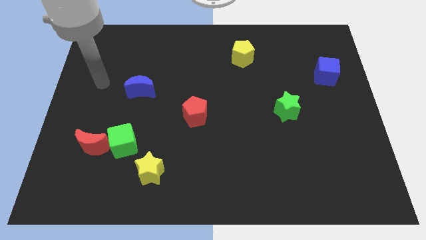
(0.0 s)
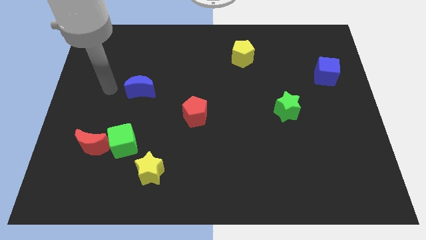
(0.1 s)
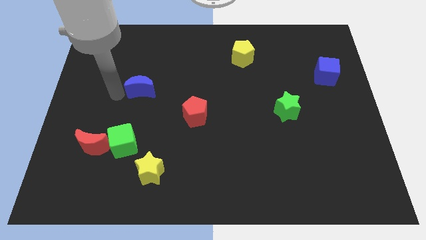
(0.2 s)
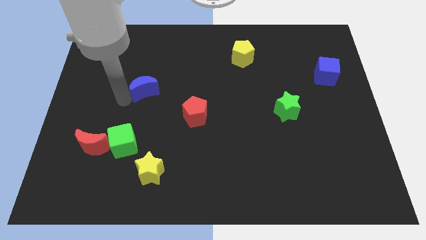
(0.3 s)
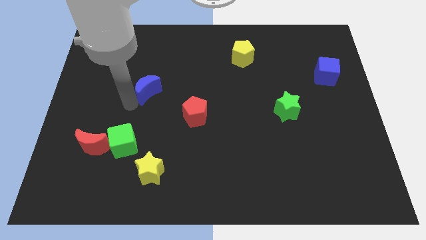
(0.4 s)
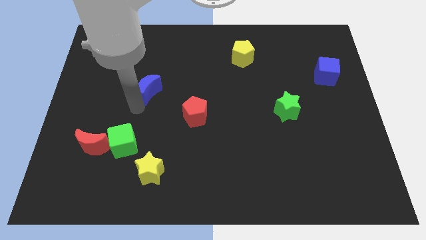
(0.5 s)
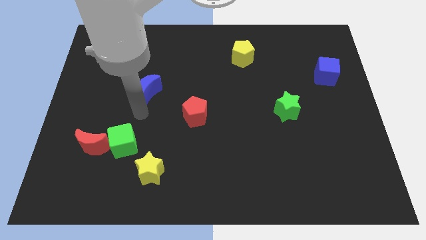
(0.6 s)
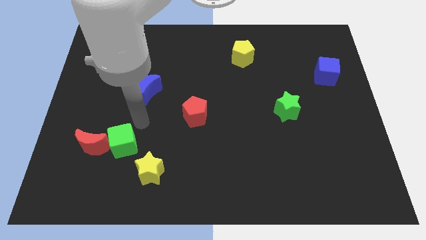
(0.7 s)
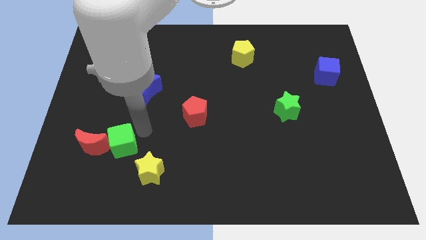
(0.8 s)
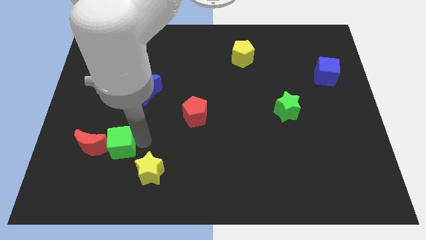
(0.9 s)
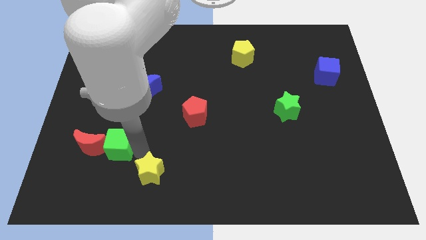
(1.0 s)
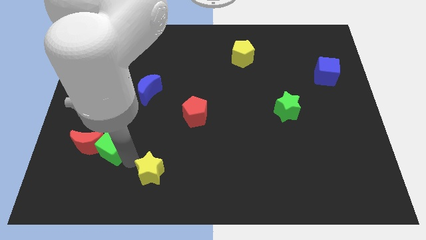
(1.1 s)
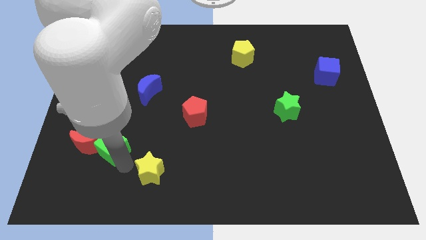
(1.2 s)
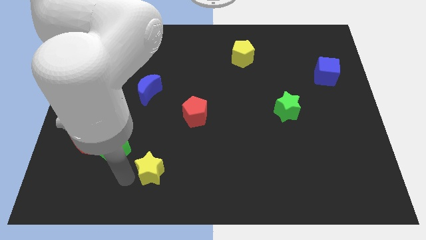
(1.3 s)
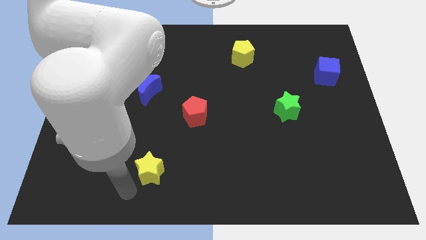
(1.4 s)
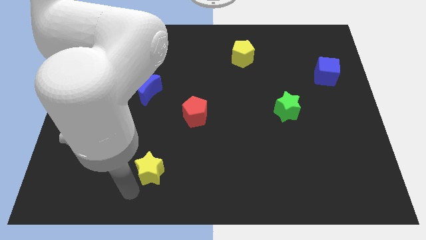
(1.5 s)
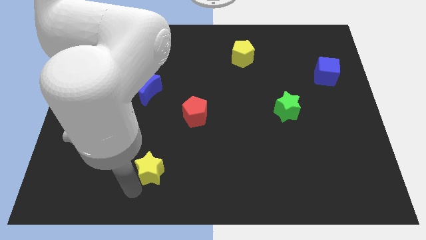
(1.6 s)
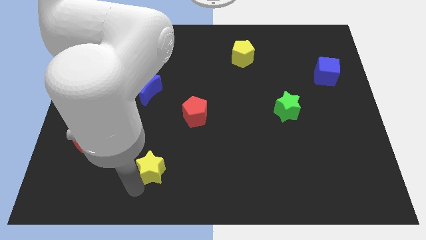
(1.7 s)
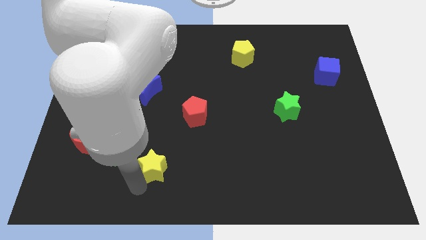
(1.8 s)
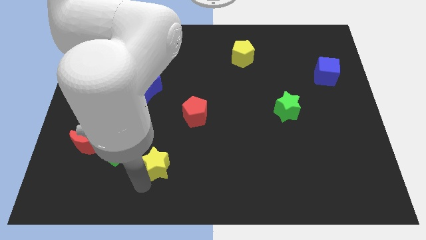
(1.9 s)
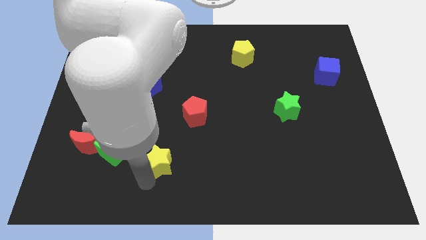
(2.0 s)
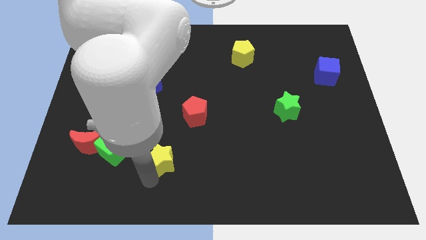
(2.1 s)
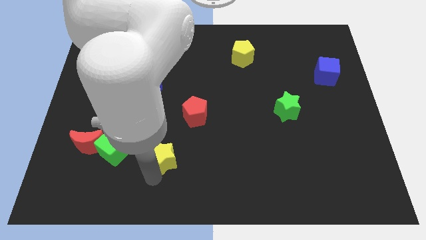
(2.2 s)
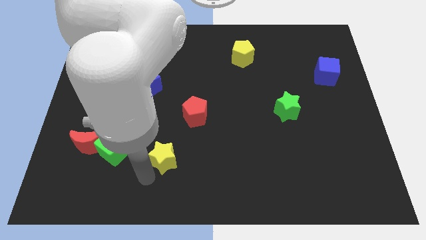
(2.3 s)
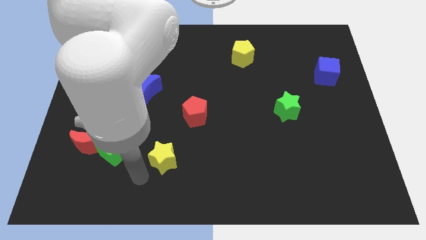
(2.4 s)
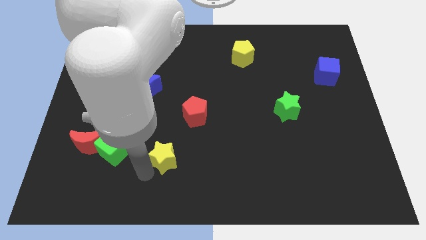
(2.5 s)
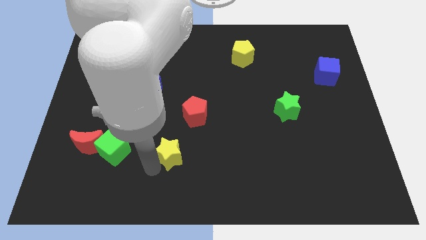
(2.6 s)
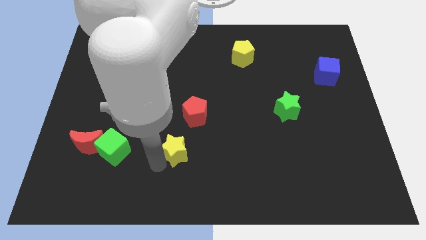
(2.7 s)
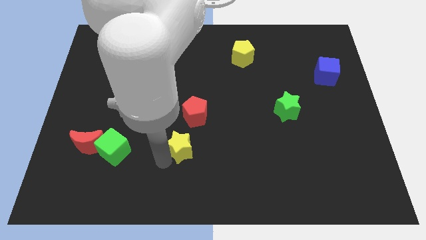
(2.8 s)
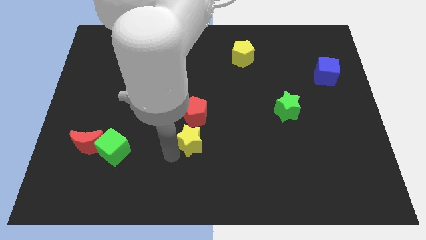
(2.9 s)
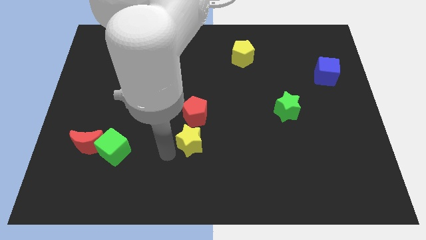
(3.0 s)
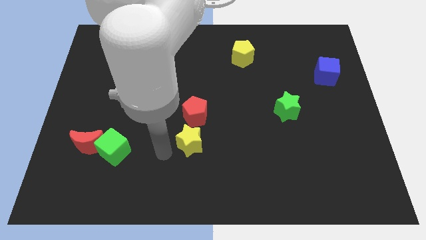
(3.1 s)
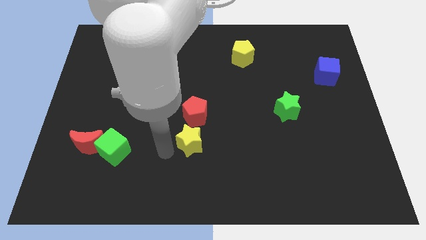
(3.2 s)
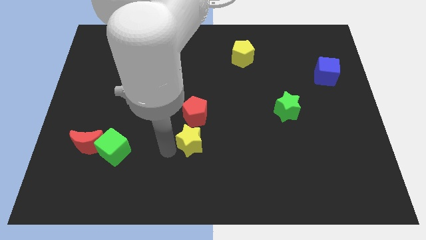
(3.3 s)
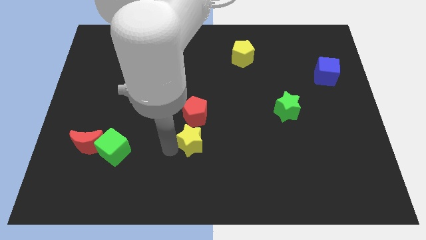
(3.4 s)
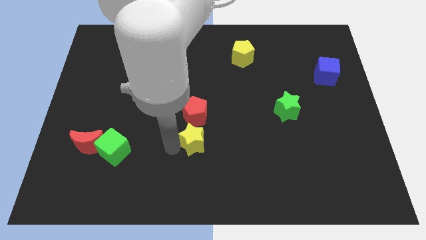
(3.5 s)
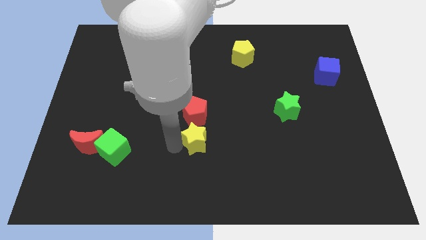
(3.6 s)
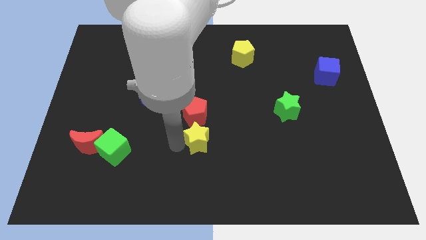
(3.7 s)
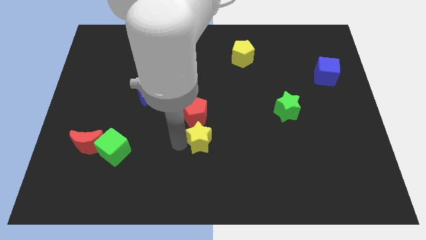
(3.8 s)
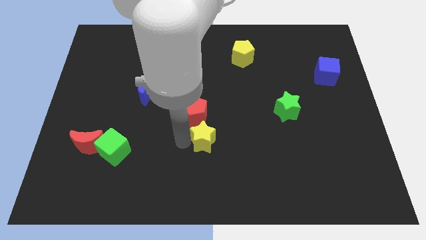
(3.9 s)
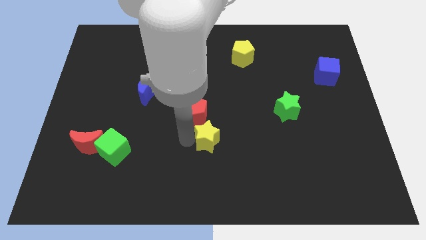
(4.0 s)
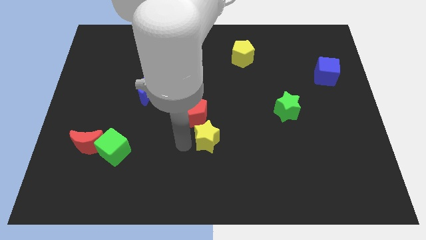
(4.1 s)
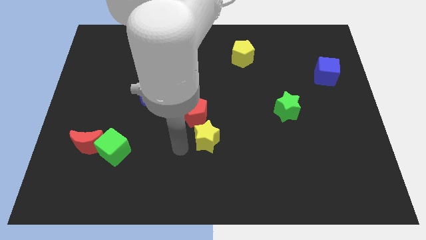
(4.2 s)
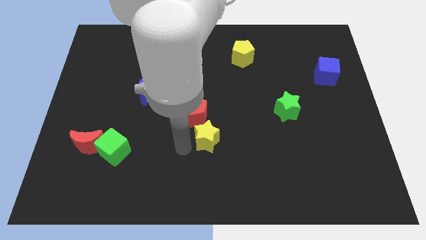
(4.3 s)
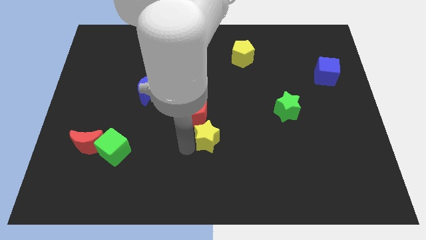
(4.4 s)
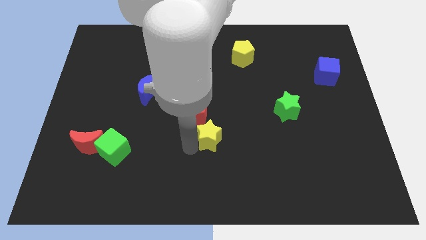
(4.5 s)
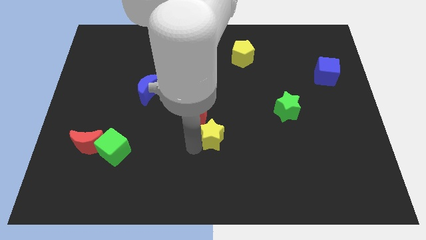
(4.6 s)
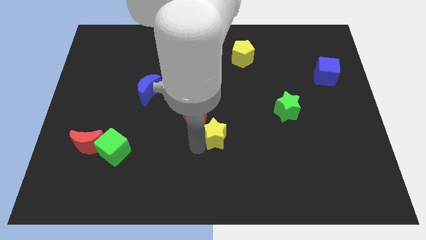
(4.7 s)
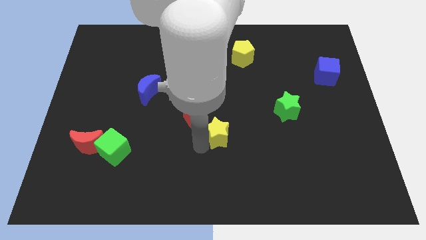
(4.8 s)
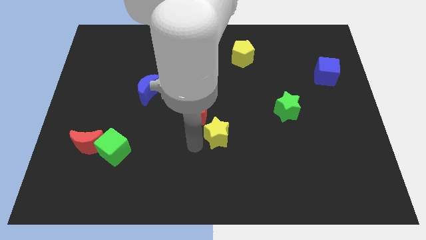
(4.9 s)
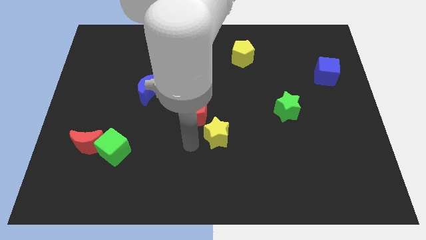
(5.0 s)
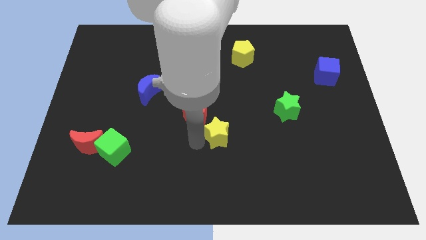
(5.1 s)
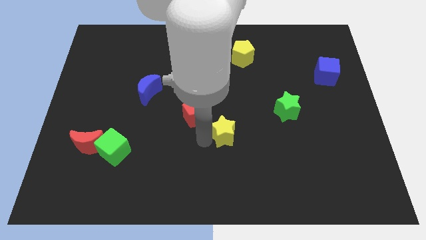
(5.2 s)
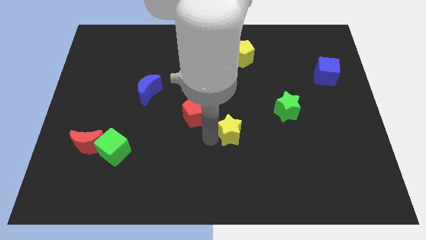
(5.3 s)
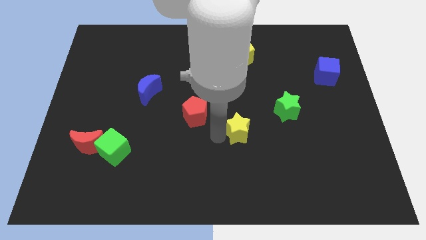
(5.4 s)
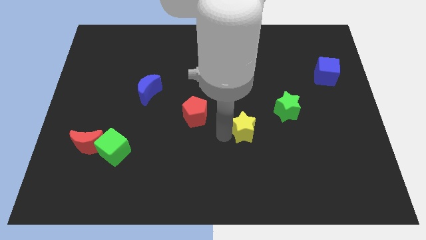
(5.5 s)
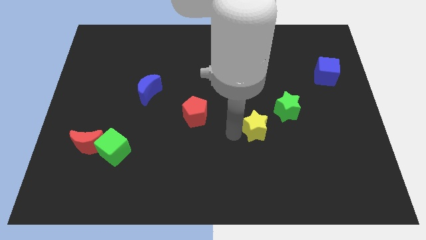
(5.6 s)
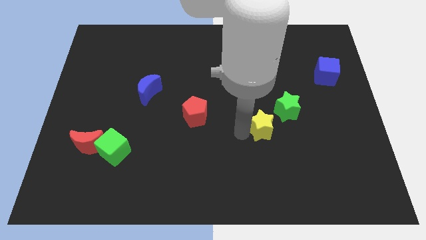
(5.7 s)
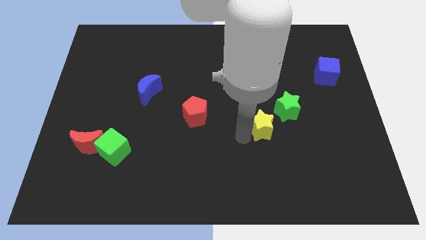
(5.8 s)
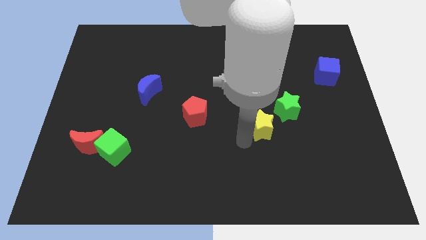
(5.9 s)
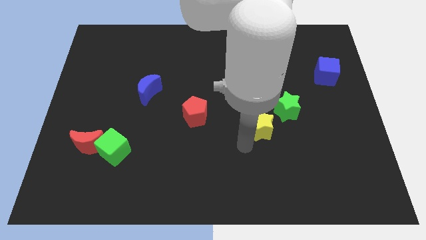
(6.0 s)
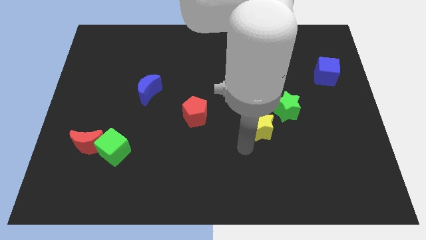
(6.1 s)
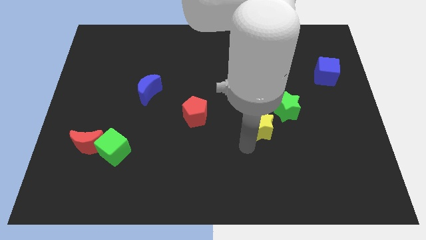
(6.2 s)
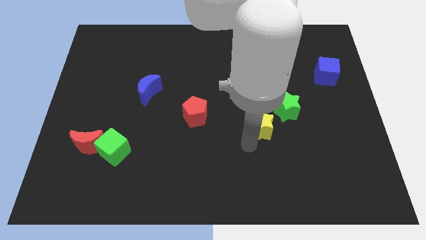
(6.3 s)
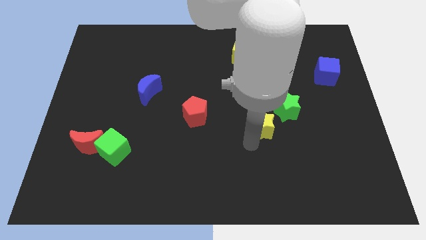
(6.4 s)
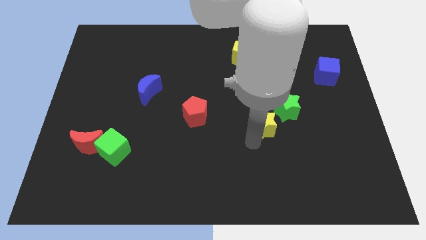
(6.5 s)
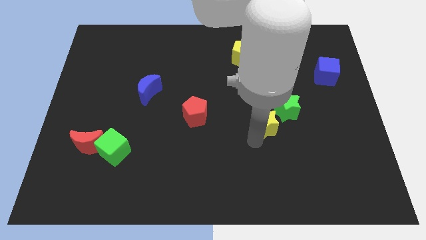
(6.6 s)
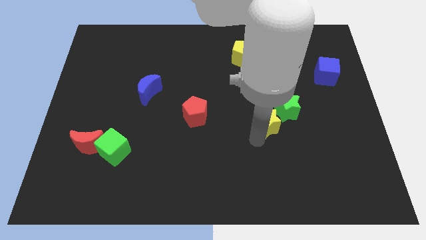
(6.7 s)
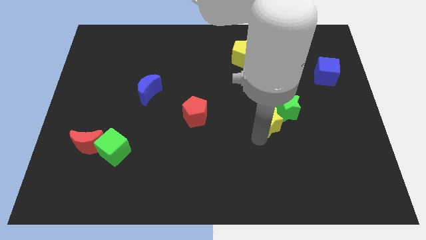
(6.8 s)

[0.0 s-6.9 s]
slide the yellow star next to the green star

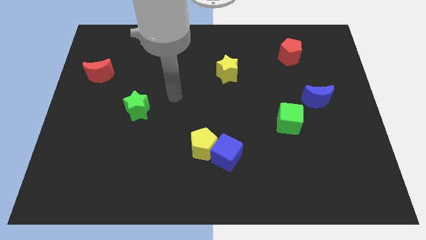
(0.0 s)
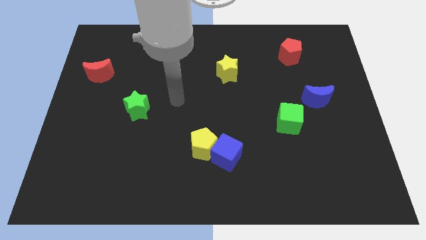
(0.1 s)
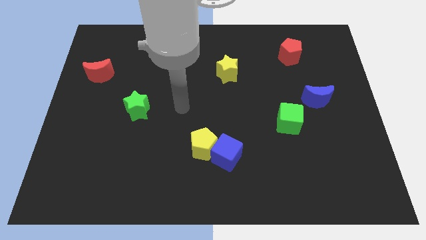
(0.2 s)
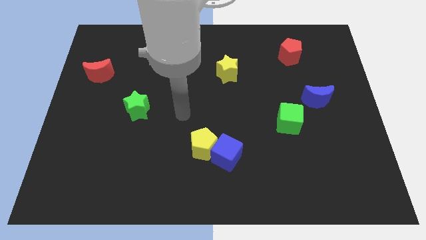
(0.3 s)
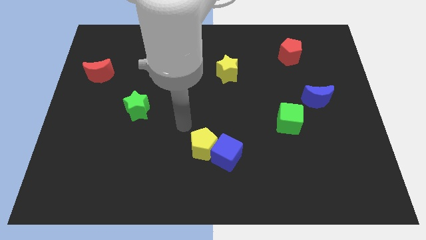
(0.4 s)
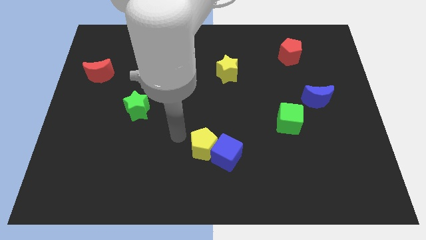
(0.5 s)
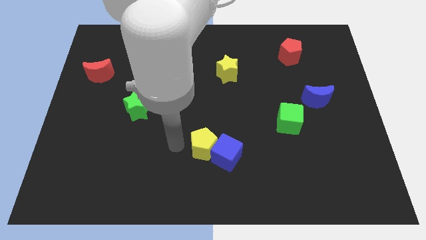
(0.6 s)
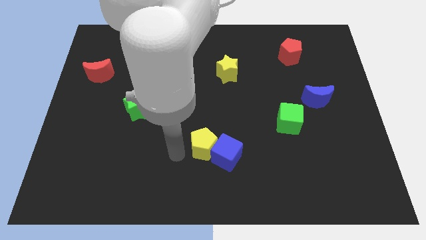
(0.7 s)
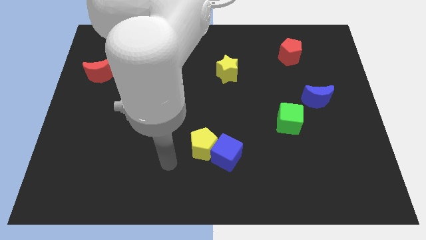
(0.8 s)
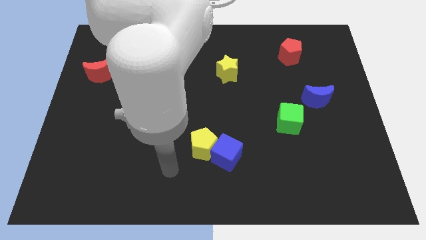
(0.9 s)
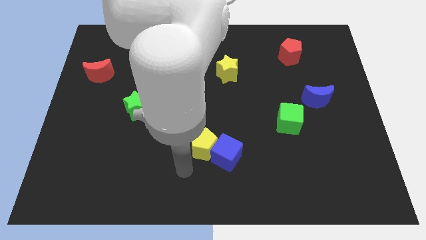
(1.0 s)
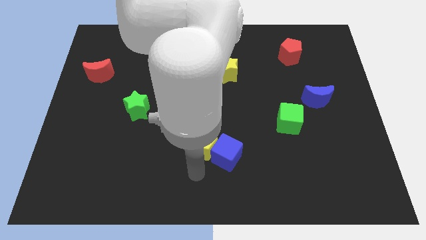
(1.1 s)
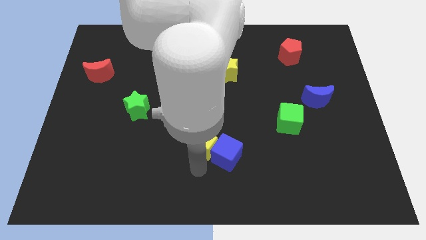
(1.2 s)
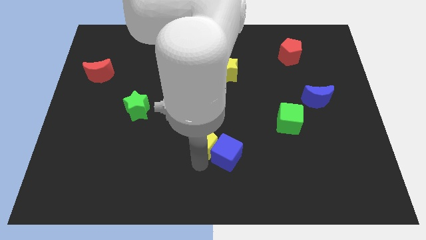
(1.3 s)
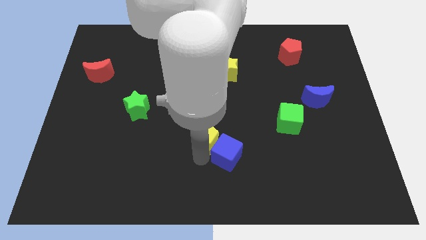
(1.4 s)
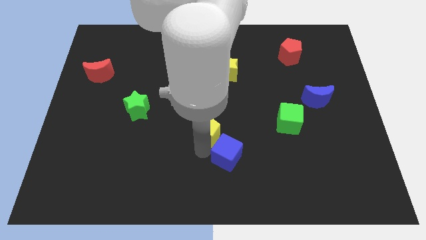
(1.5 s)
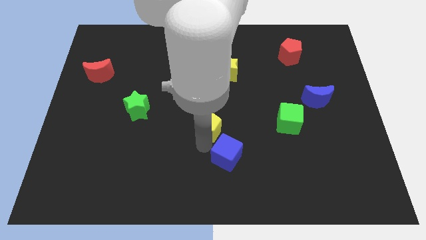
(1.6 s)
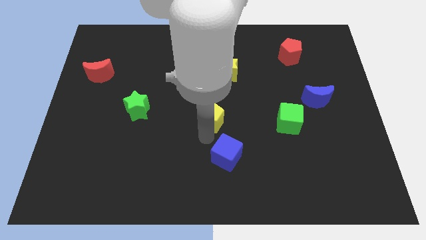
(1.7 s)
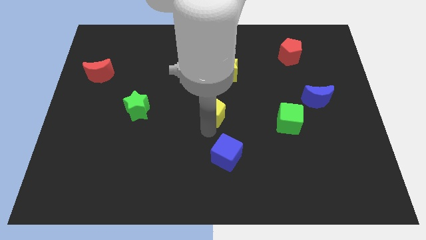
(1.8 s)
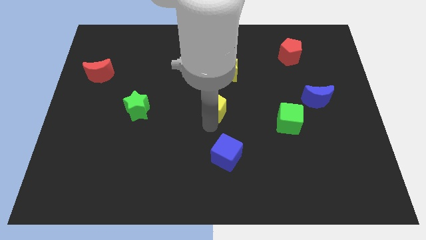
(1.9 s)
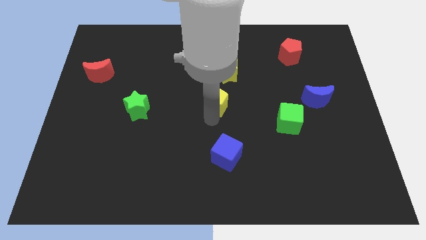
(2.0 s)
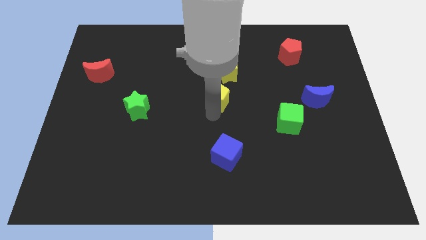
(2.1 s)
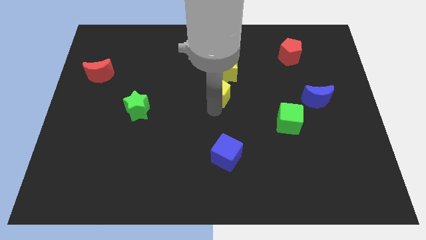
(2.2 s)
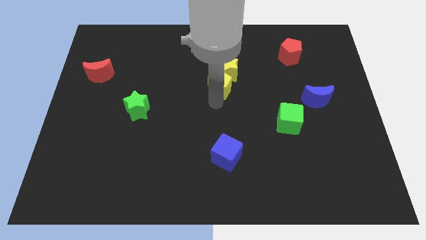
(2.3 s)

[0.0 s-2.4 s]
slide the yellow pentagon towards the yellow star
